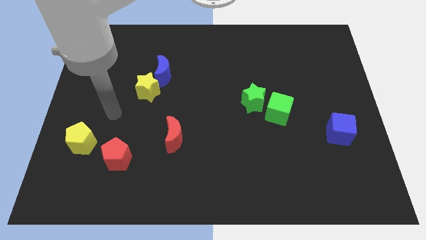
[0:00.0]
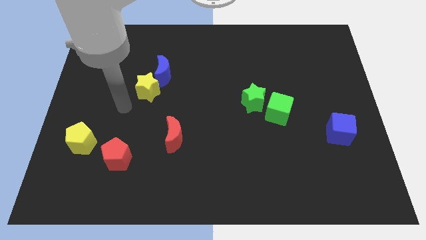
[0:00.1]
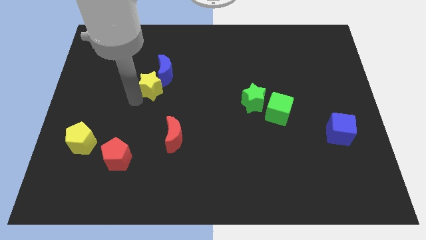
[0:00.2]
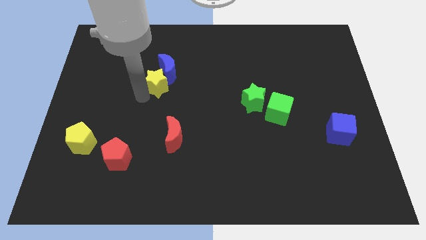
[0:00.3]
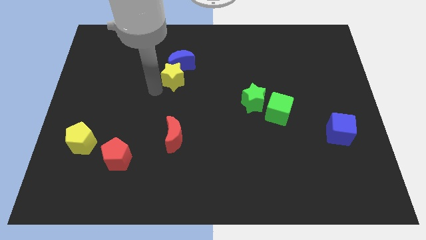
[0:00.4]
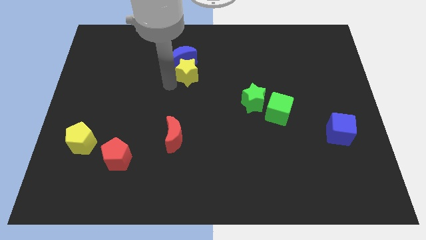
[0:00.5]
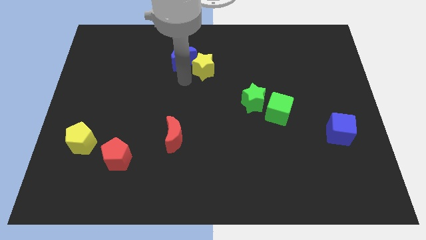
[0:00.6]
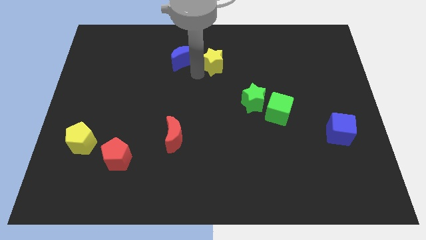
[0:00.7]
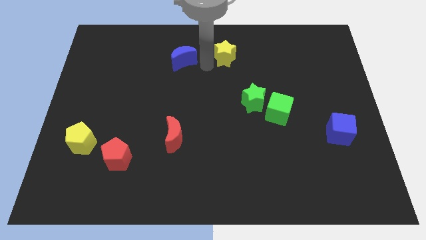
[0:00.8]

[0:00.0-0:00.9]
separate the blue moon from the yellow star

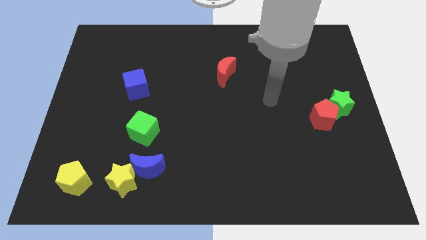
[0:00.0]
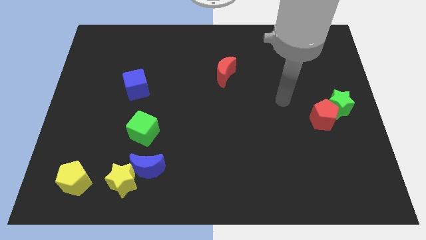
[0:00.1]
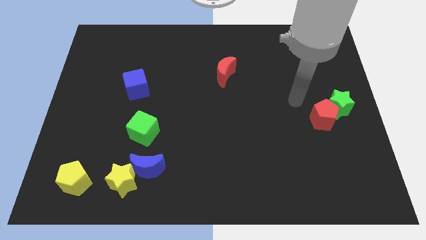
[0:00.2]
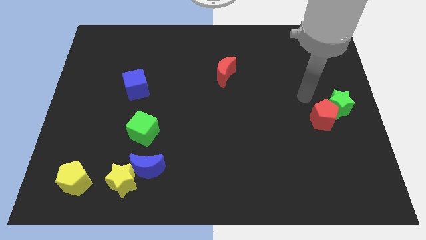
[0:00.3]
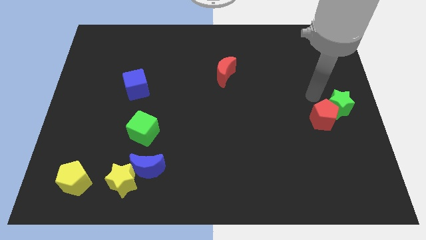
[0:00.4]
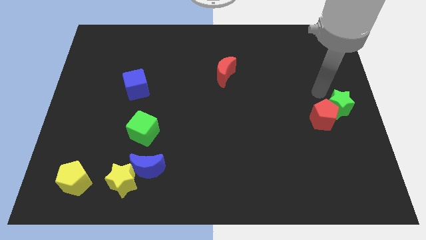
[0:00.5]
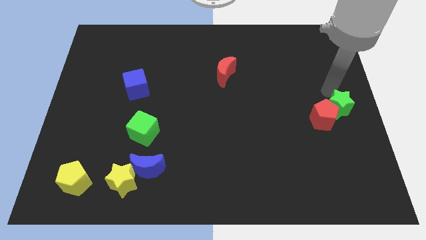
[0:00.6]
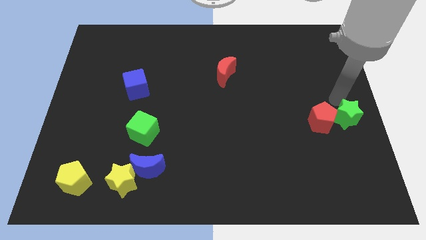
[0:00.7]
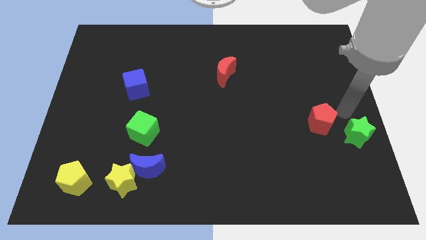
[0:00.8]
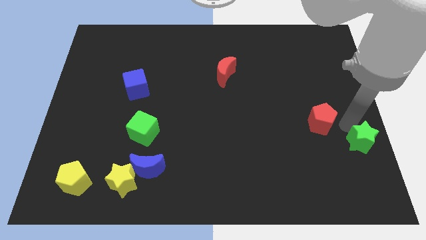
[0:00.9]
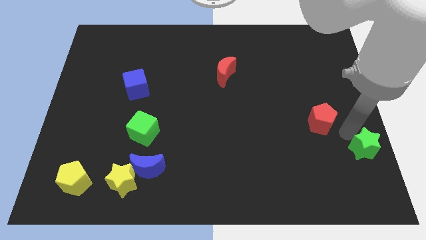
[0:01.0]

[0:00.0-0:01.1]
separate the red pentagon from the green star

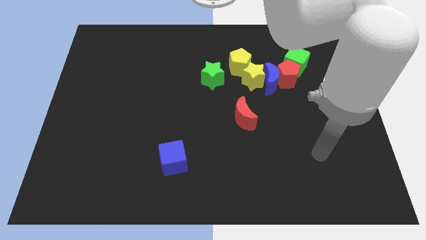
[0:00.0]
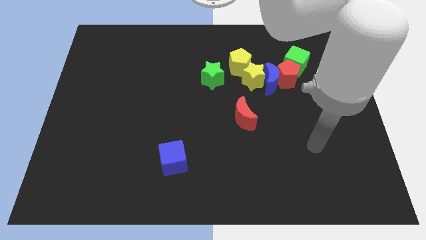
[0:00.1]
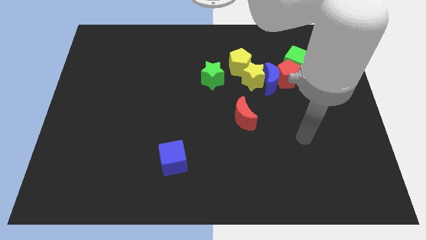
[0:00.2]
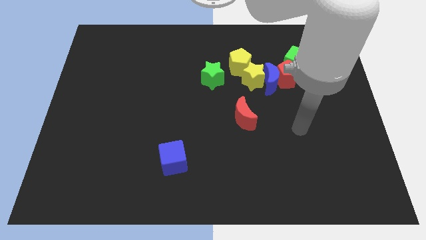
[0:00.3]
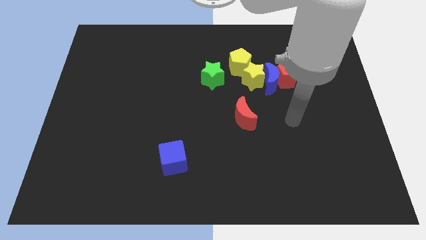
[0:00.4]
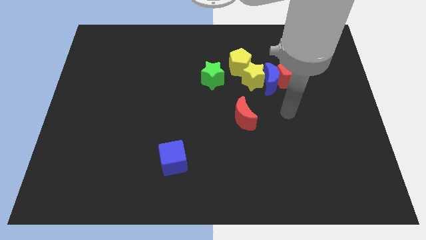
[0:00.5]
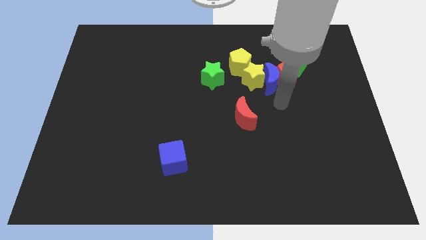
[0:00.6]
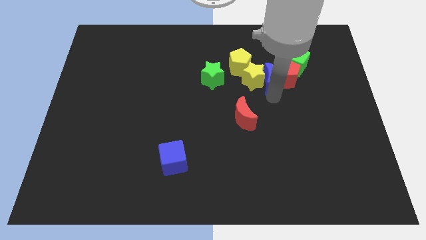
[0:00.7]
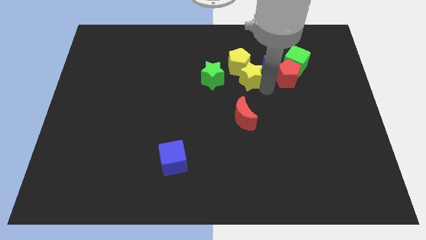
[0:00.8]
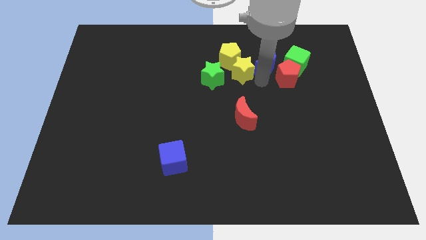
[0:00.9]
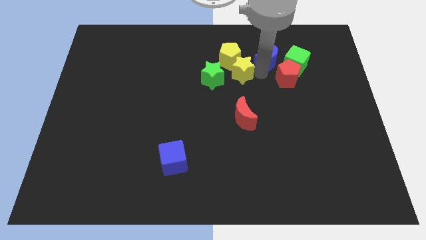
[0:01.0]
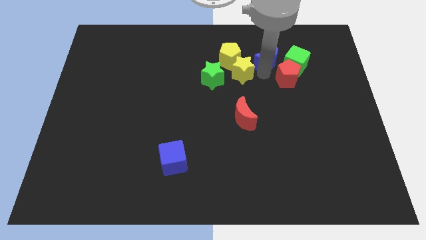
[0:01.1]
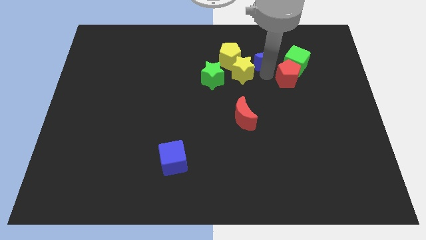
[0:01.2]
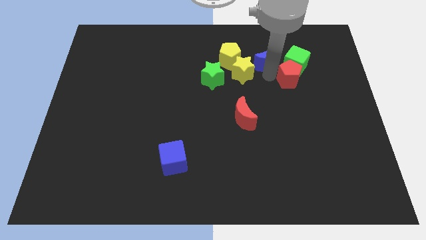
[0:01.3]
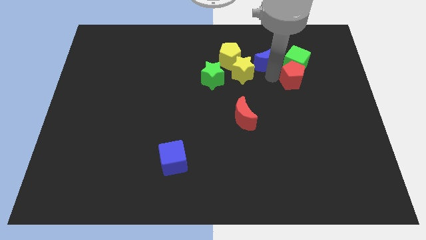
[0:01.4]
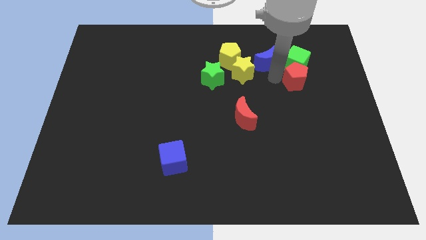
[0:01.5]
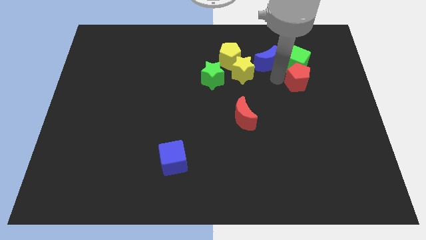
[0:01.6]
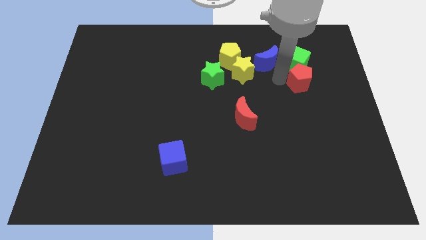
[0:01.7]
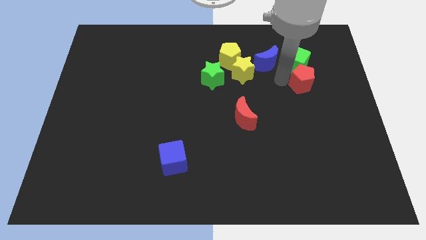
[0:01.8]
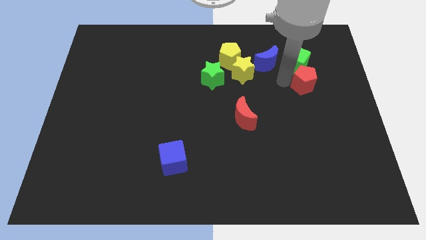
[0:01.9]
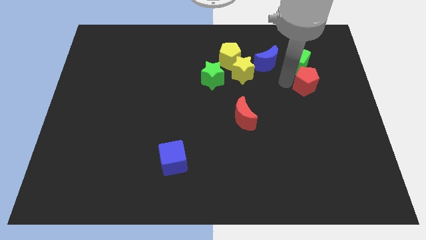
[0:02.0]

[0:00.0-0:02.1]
pull the red pentagon apart from the blue moon, green cube, and yellow star

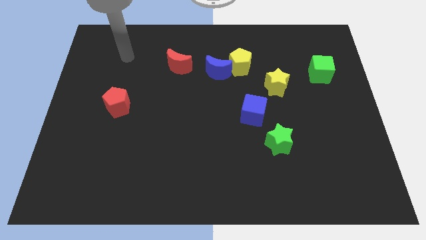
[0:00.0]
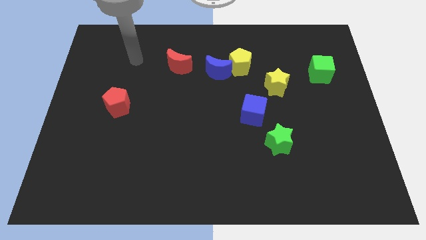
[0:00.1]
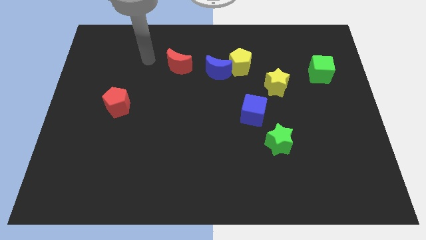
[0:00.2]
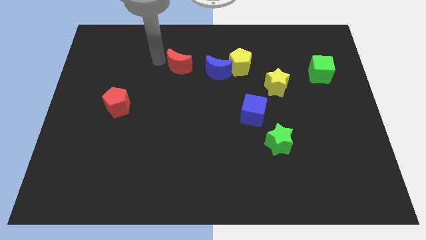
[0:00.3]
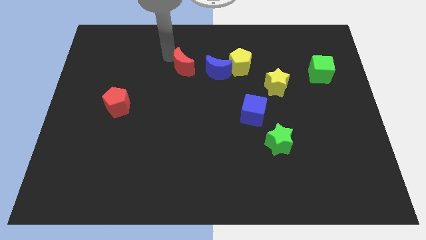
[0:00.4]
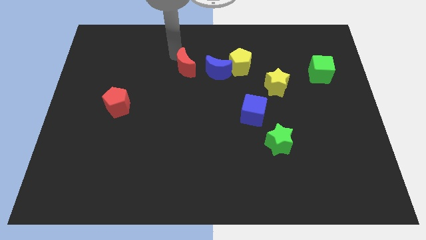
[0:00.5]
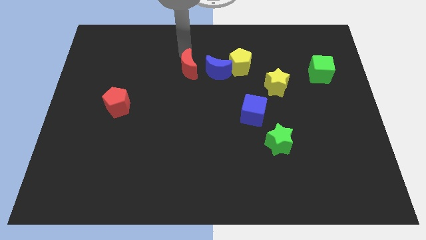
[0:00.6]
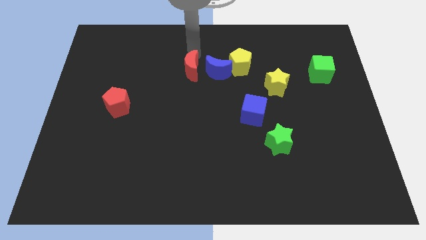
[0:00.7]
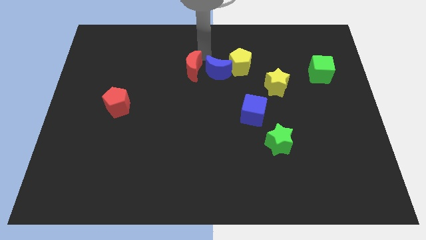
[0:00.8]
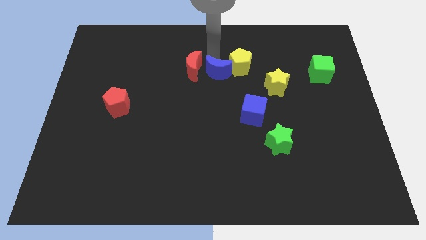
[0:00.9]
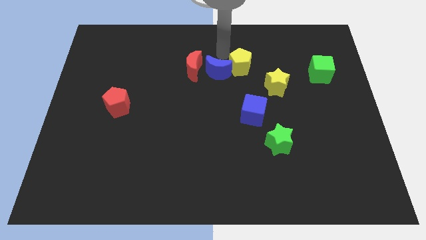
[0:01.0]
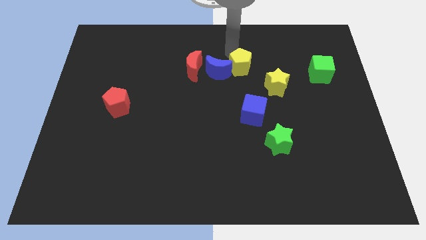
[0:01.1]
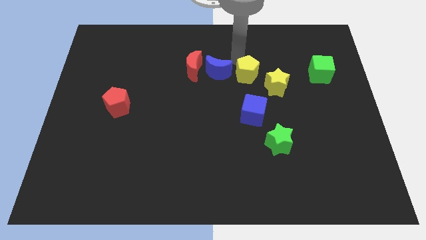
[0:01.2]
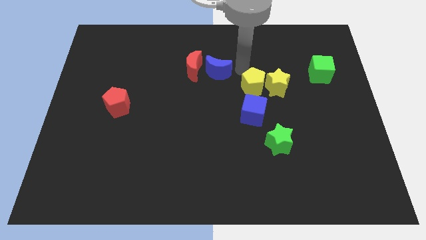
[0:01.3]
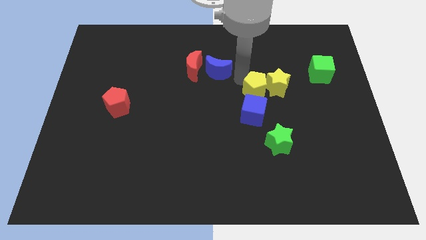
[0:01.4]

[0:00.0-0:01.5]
move the blue moon away from the yellow pentagon

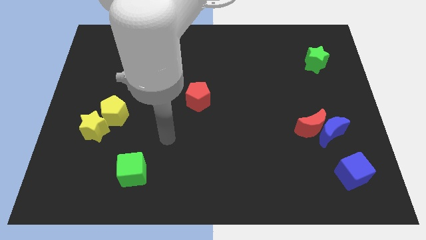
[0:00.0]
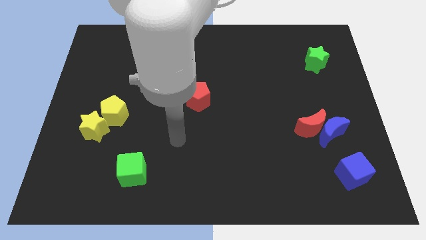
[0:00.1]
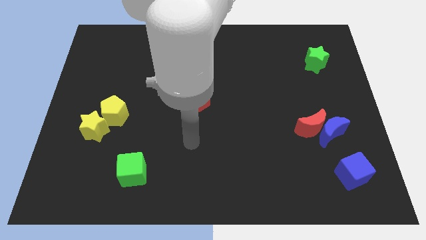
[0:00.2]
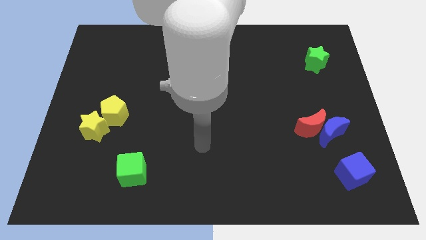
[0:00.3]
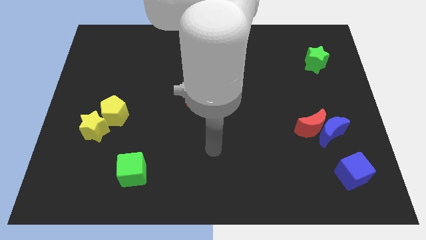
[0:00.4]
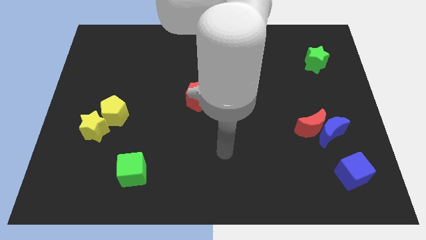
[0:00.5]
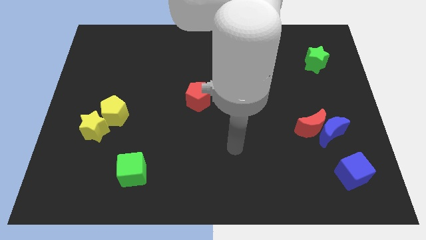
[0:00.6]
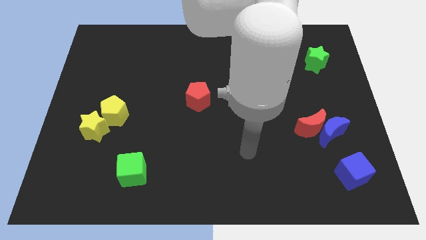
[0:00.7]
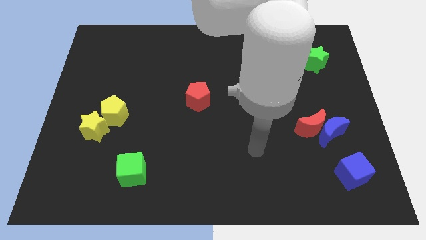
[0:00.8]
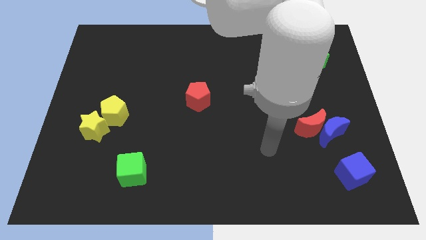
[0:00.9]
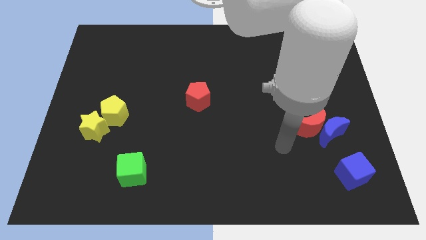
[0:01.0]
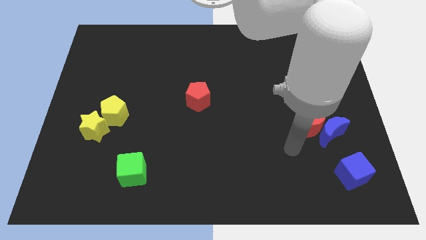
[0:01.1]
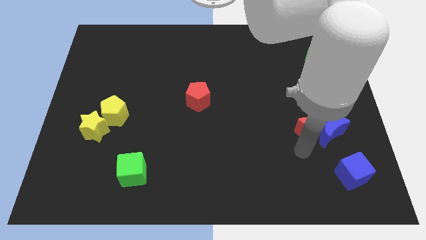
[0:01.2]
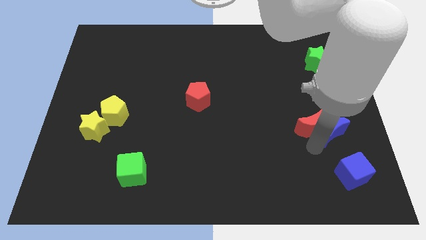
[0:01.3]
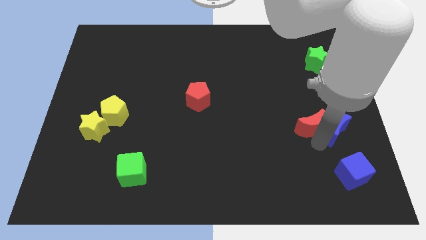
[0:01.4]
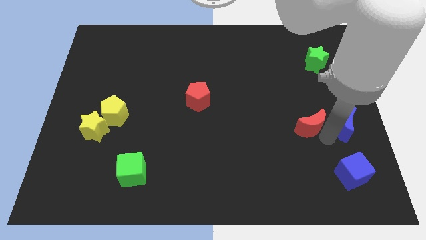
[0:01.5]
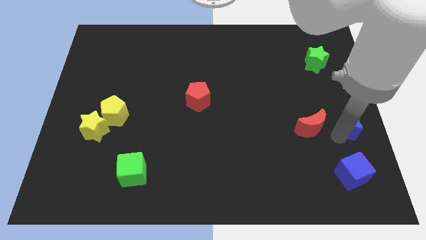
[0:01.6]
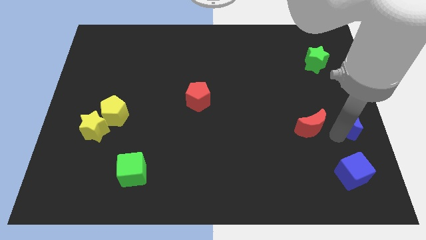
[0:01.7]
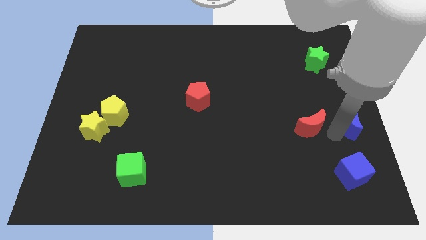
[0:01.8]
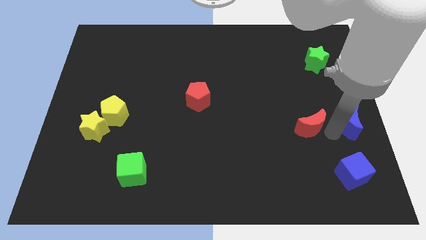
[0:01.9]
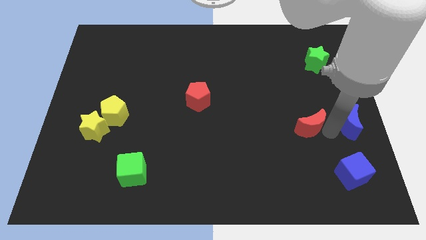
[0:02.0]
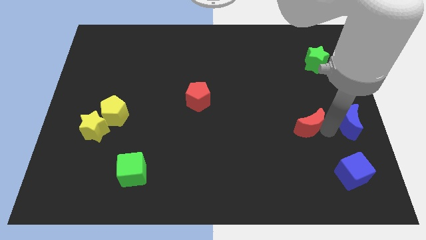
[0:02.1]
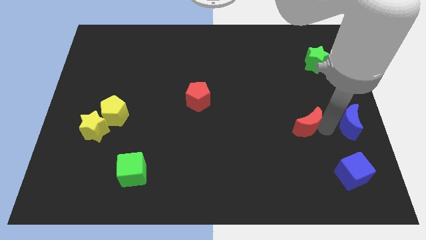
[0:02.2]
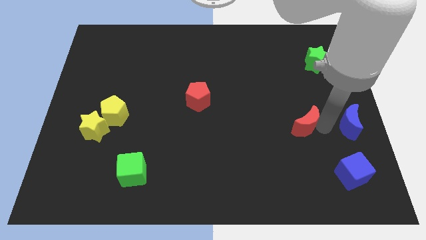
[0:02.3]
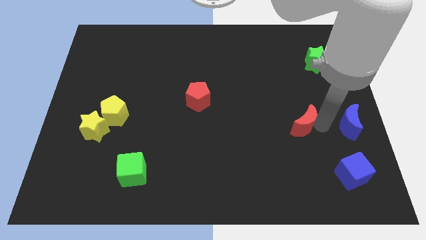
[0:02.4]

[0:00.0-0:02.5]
move the red moon away from the blue moon

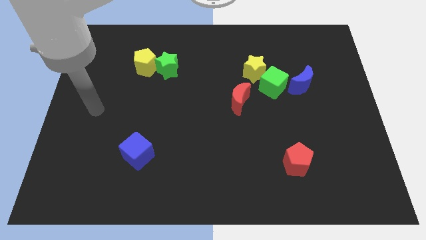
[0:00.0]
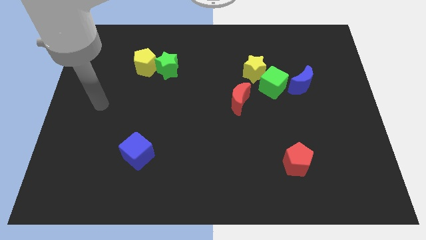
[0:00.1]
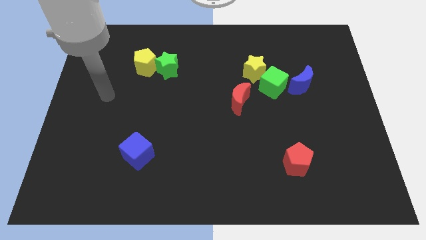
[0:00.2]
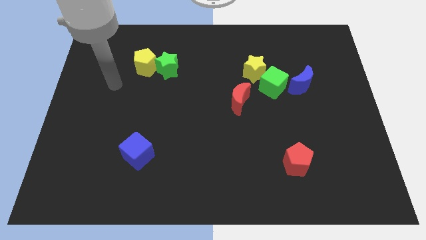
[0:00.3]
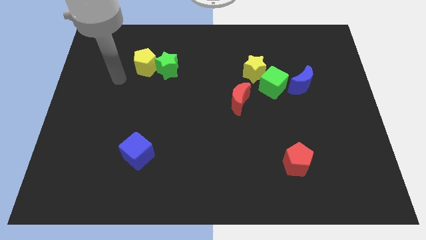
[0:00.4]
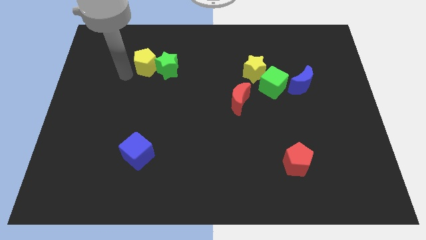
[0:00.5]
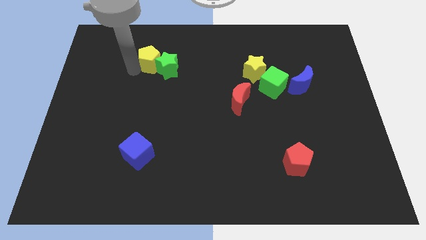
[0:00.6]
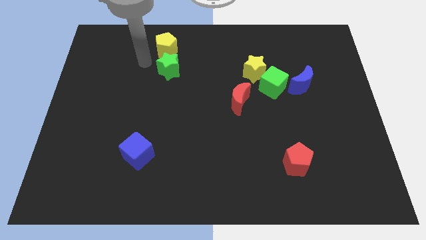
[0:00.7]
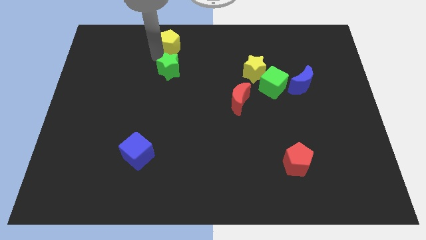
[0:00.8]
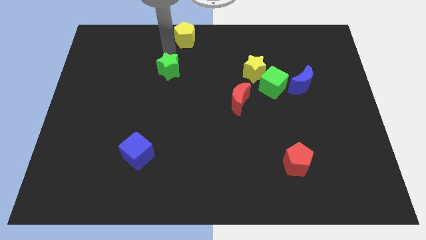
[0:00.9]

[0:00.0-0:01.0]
separate the green star from the yellow pentagon
